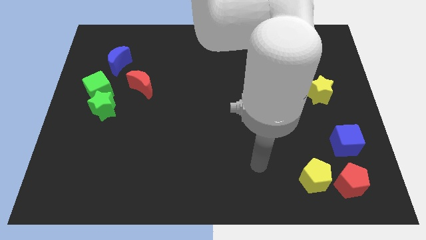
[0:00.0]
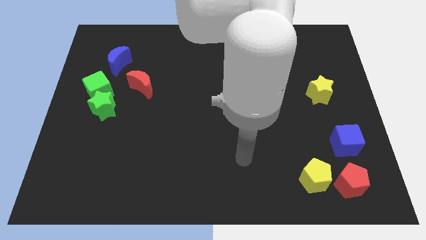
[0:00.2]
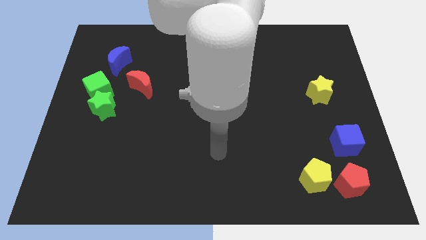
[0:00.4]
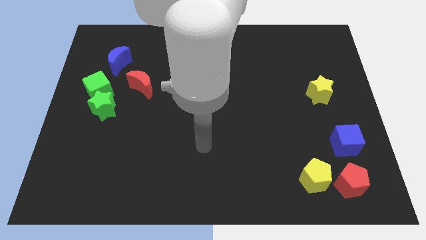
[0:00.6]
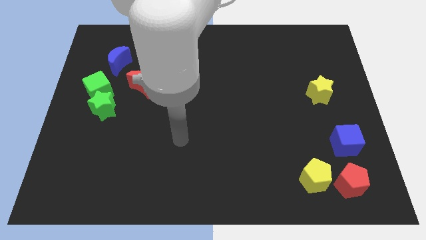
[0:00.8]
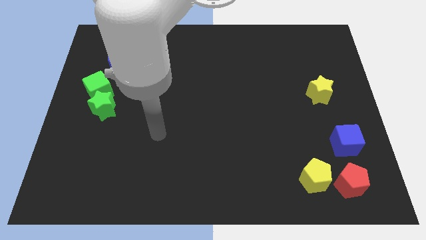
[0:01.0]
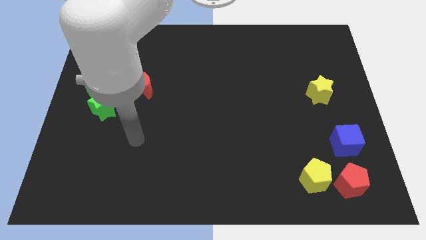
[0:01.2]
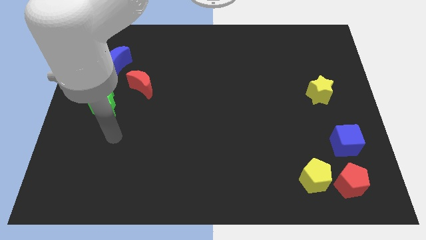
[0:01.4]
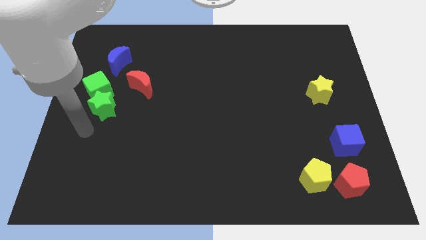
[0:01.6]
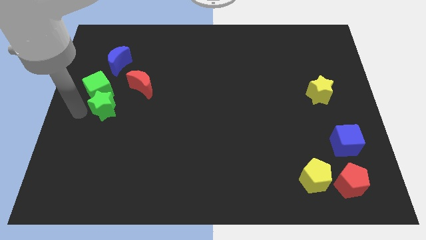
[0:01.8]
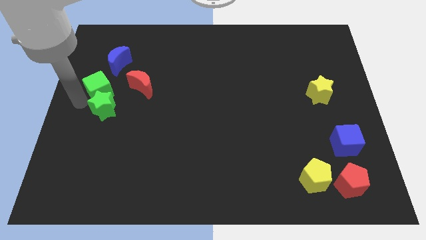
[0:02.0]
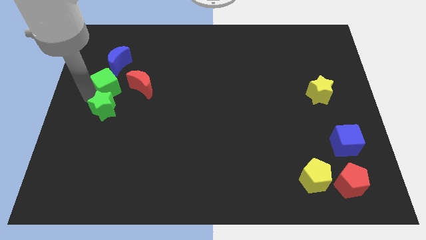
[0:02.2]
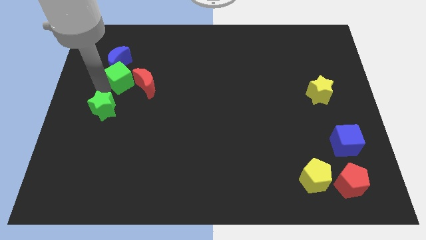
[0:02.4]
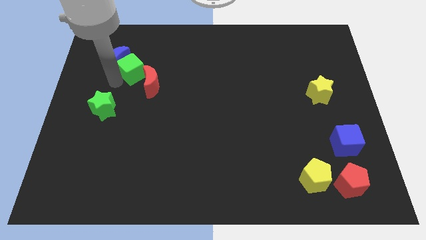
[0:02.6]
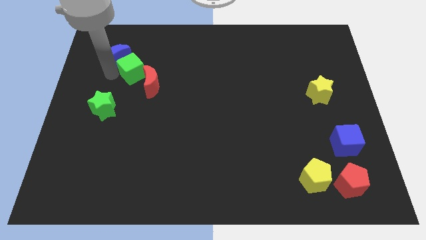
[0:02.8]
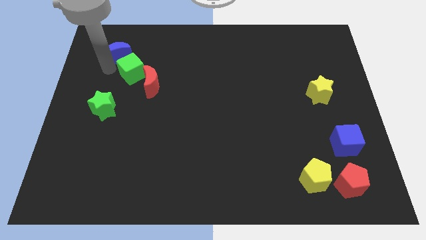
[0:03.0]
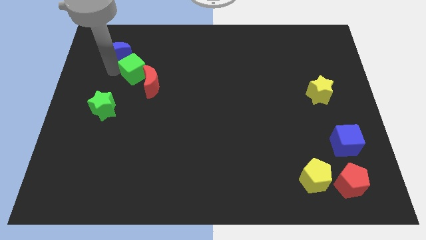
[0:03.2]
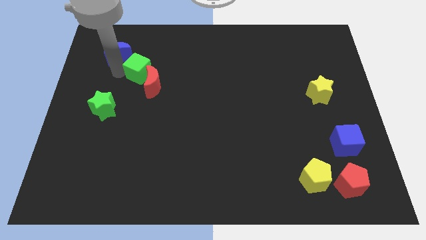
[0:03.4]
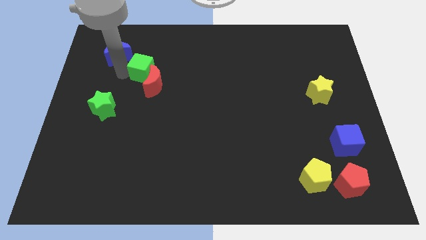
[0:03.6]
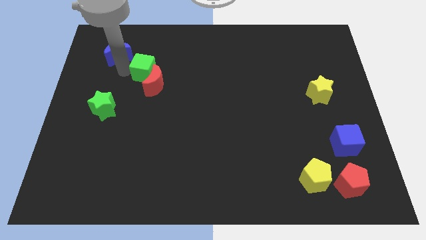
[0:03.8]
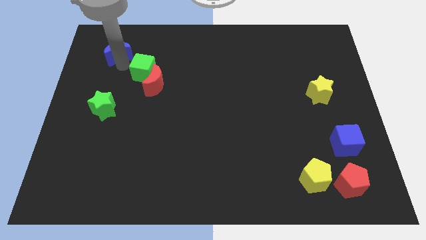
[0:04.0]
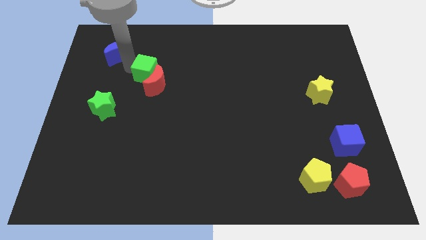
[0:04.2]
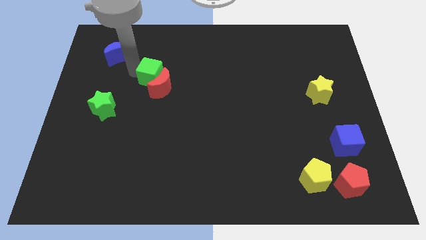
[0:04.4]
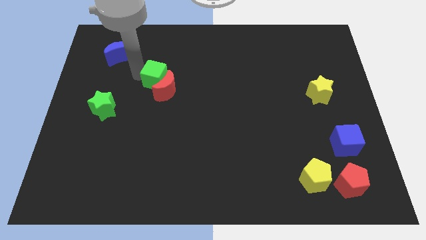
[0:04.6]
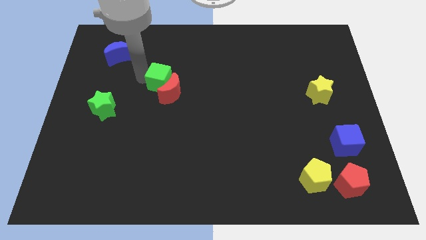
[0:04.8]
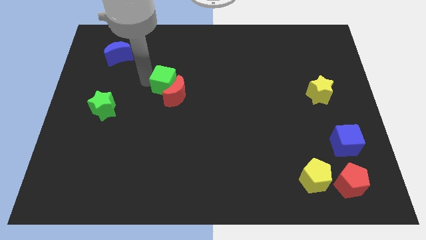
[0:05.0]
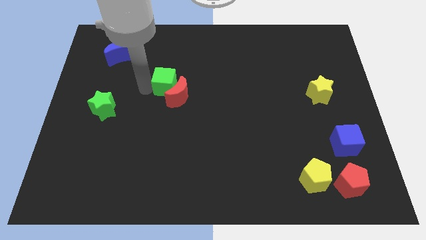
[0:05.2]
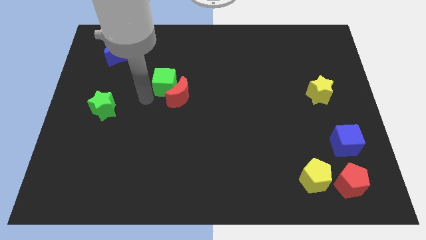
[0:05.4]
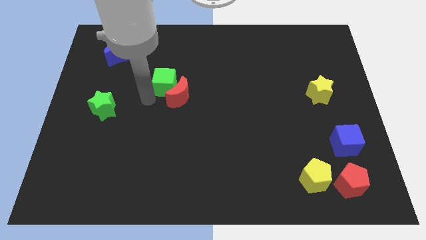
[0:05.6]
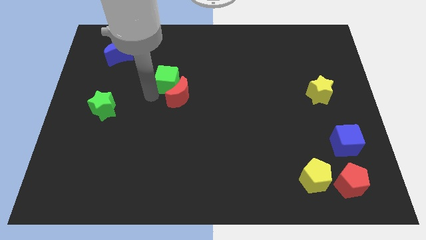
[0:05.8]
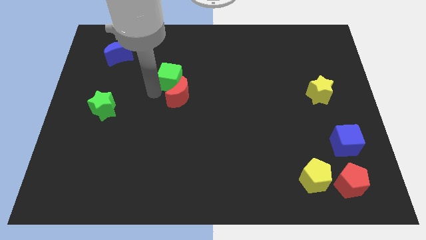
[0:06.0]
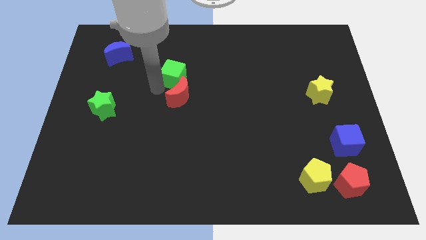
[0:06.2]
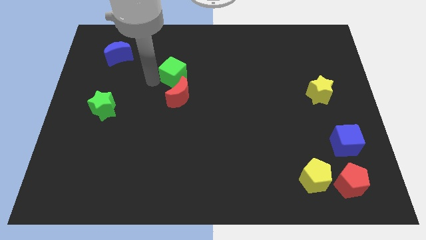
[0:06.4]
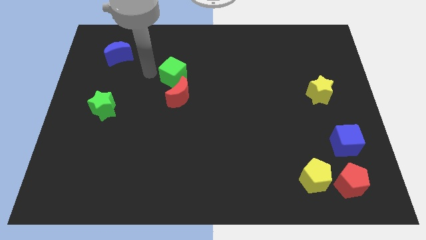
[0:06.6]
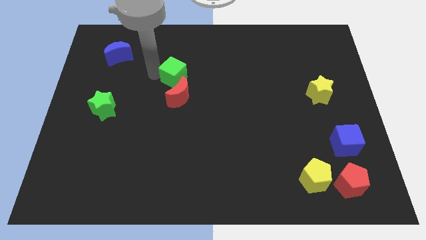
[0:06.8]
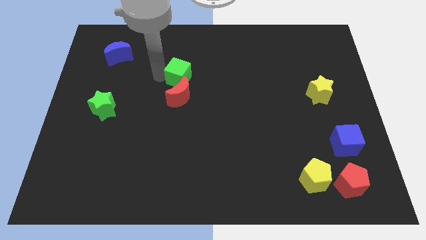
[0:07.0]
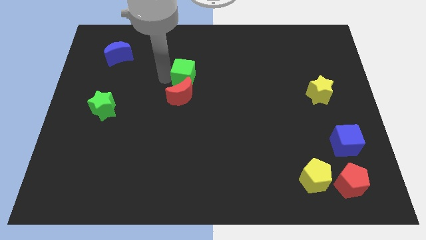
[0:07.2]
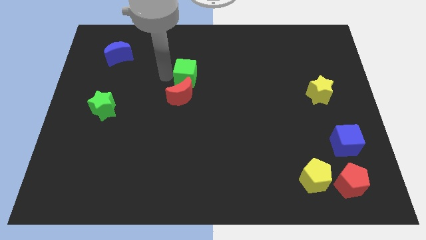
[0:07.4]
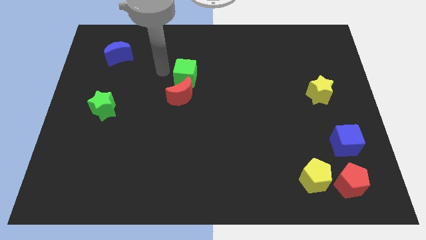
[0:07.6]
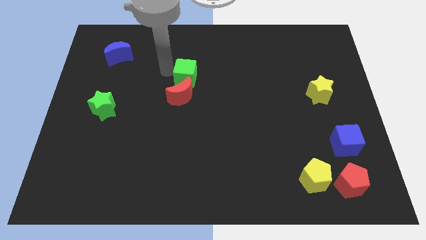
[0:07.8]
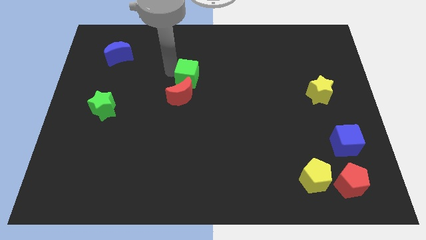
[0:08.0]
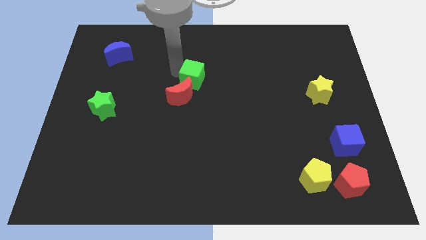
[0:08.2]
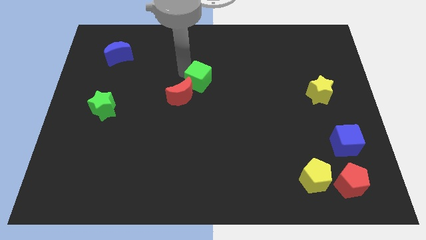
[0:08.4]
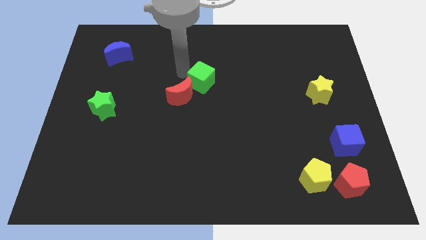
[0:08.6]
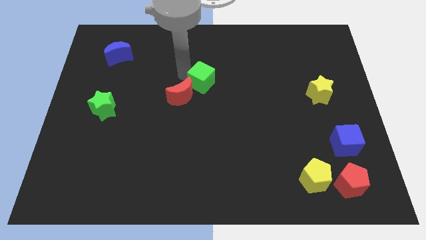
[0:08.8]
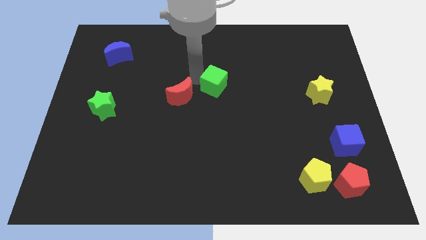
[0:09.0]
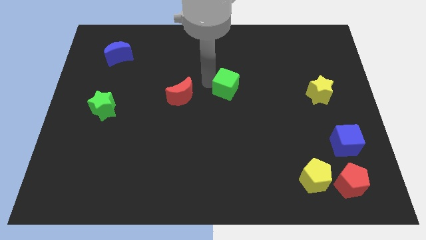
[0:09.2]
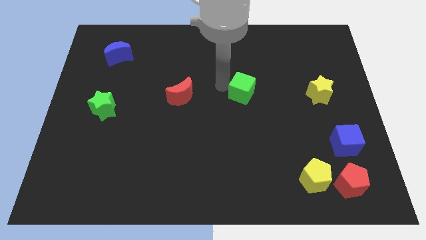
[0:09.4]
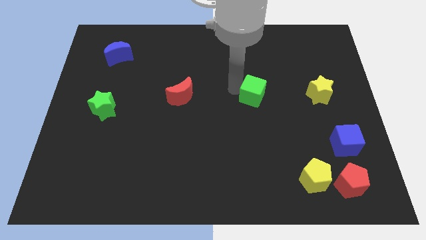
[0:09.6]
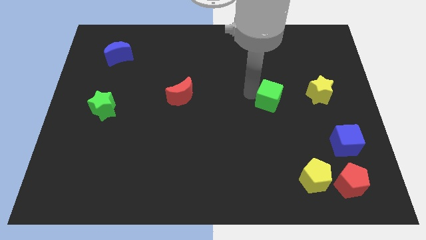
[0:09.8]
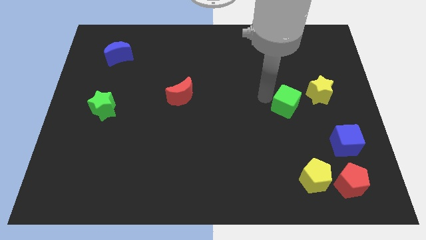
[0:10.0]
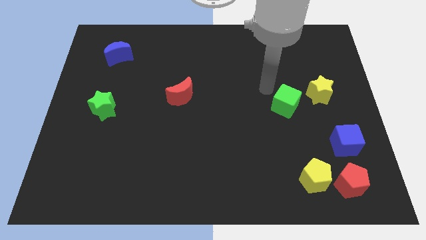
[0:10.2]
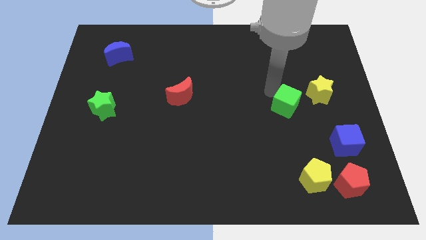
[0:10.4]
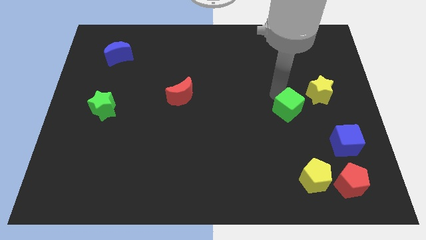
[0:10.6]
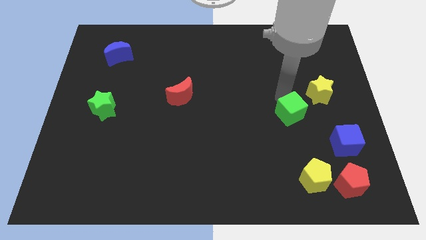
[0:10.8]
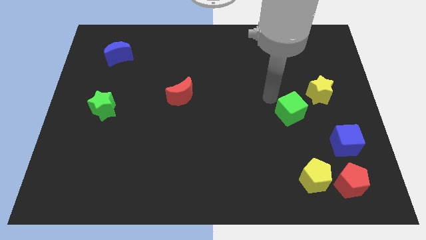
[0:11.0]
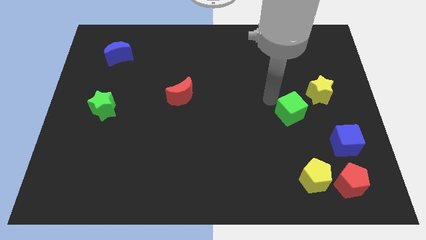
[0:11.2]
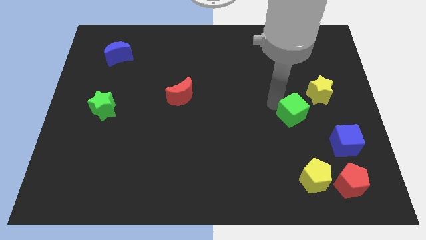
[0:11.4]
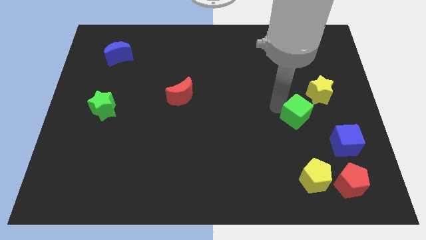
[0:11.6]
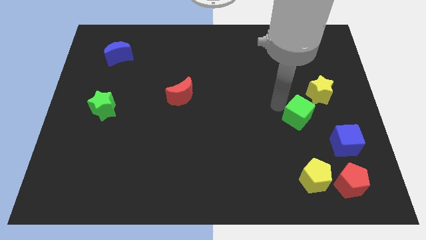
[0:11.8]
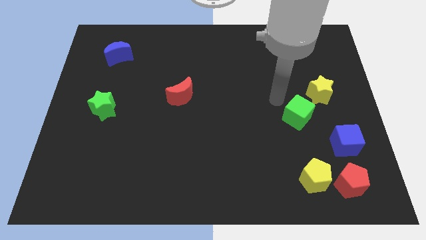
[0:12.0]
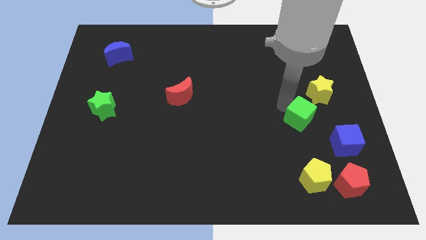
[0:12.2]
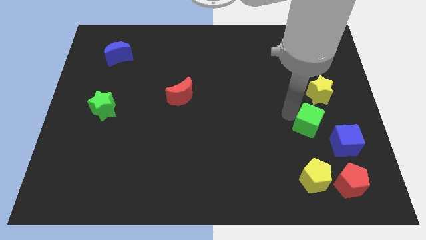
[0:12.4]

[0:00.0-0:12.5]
slide the green cube to the bottom side of the yellow star
